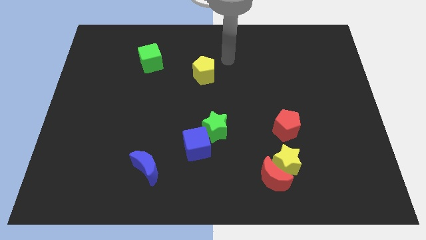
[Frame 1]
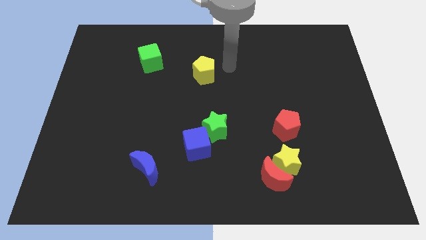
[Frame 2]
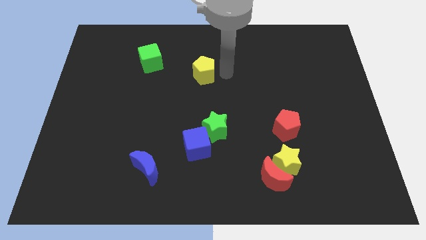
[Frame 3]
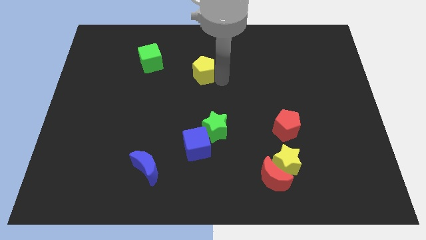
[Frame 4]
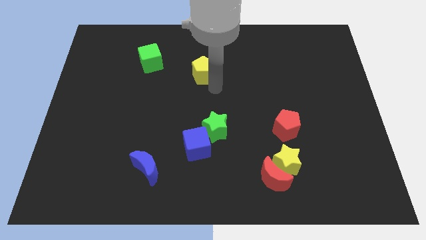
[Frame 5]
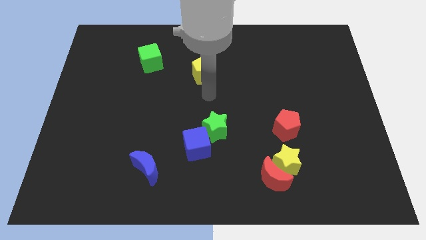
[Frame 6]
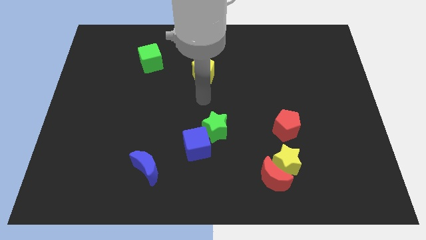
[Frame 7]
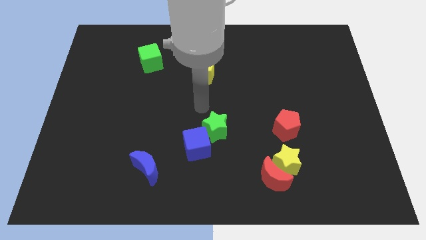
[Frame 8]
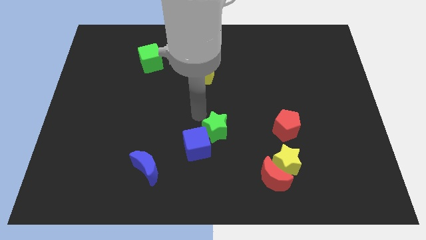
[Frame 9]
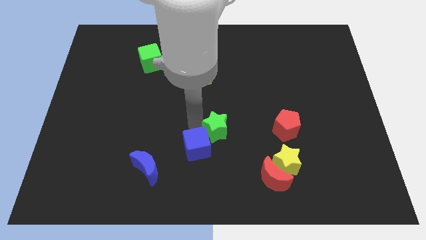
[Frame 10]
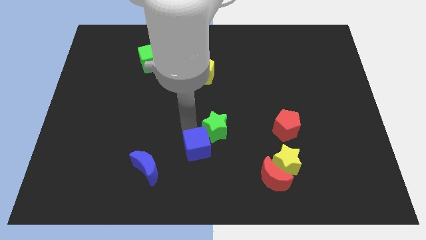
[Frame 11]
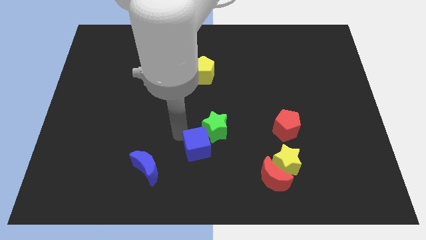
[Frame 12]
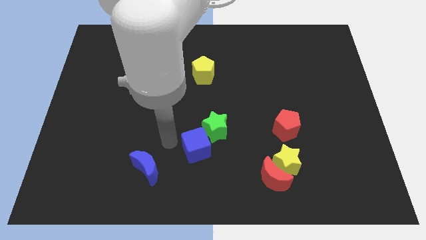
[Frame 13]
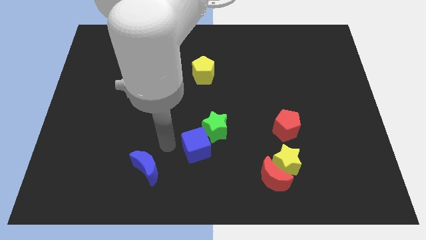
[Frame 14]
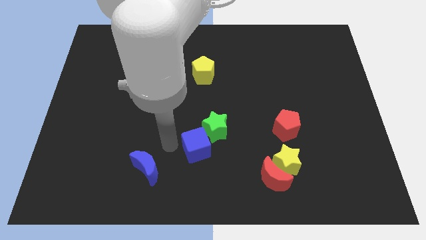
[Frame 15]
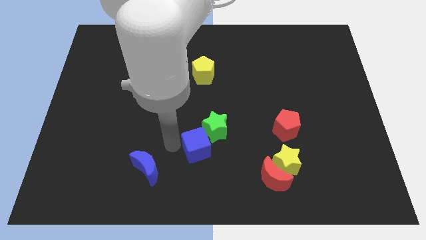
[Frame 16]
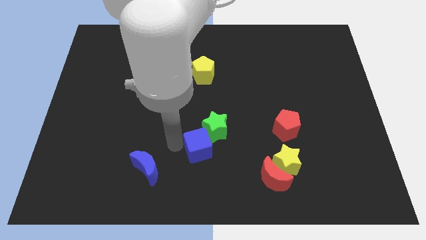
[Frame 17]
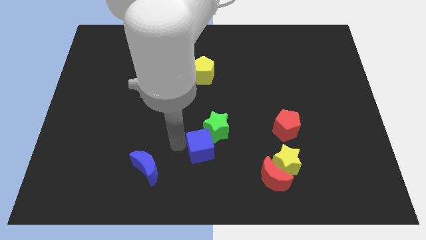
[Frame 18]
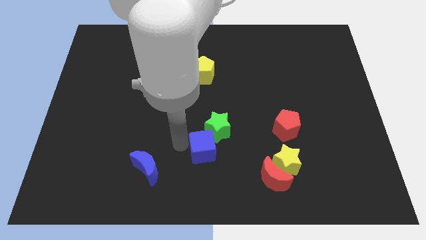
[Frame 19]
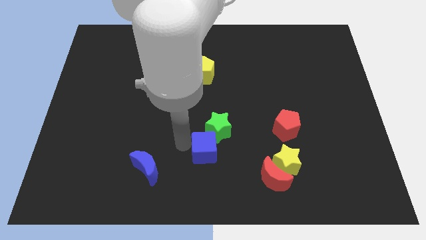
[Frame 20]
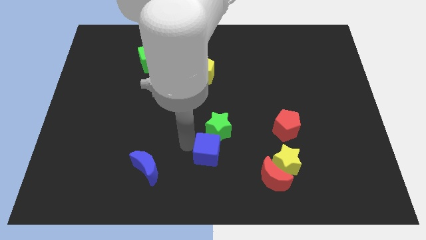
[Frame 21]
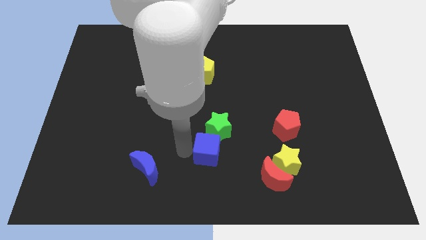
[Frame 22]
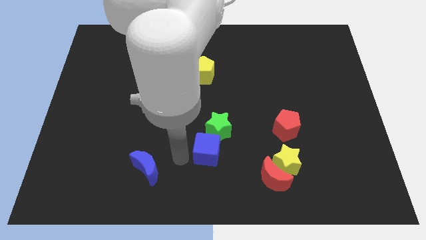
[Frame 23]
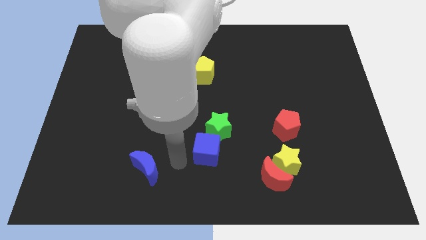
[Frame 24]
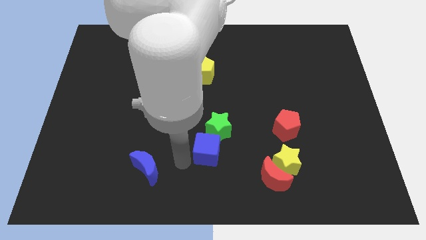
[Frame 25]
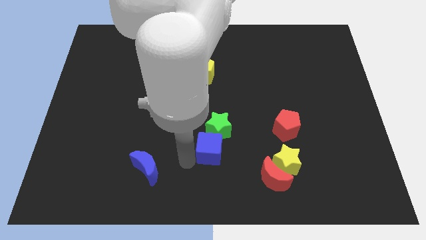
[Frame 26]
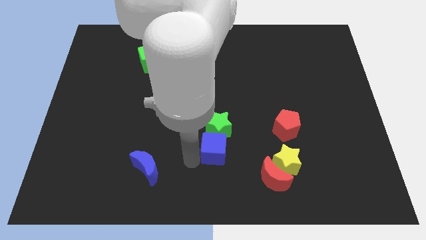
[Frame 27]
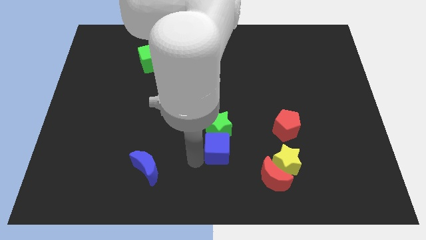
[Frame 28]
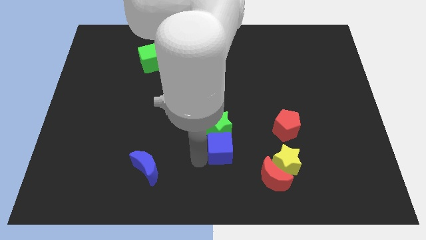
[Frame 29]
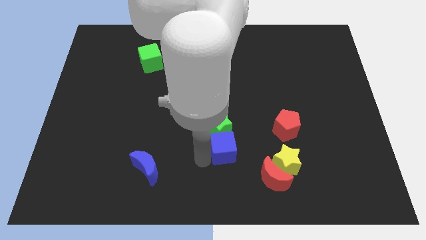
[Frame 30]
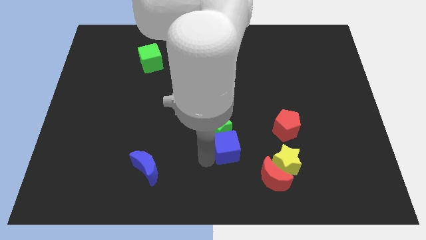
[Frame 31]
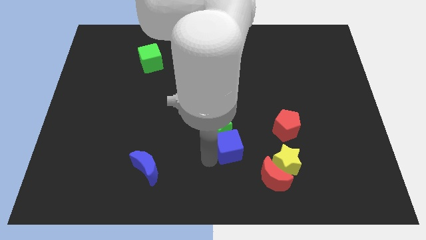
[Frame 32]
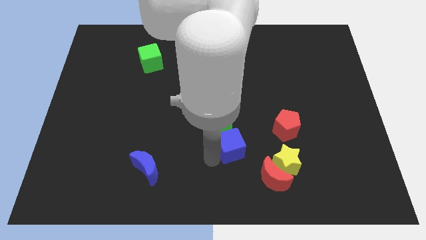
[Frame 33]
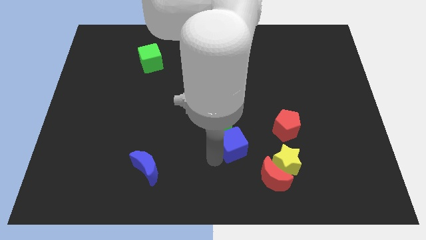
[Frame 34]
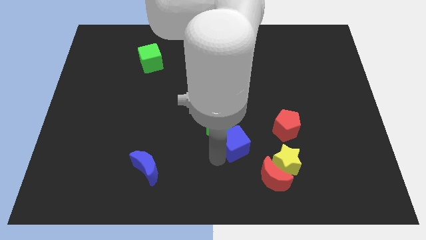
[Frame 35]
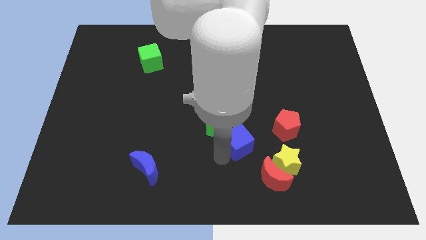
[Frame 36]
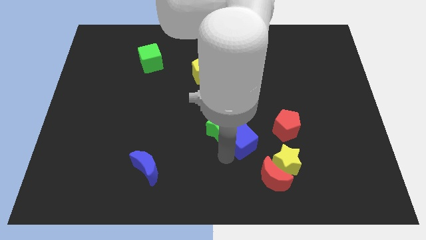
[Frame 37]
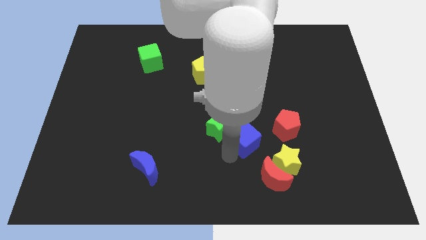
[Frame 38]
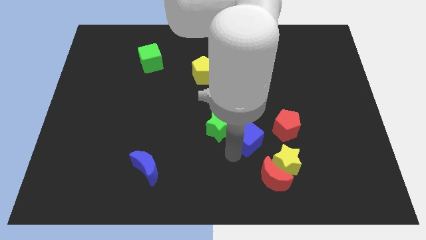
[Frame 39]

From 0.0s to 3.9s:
push the blue cube a little bit upwards and to the right diagonally

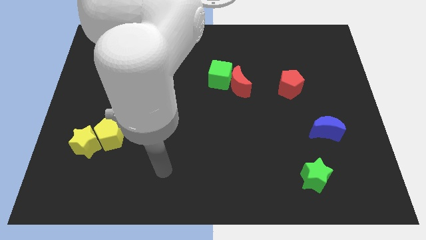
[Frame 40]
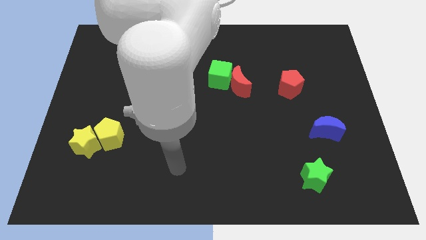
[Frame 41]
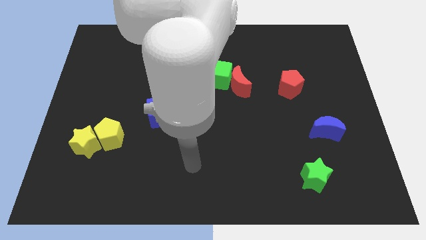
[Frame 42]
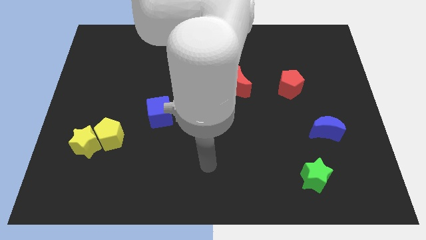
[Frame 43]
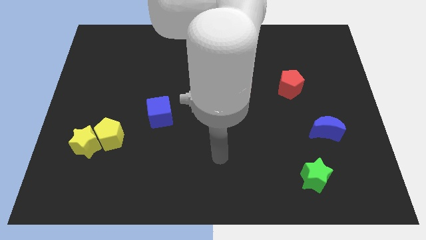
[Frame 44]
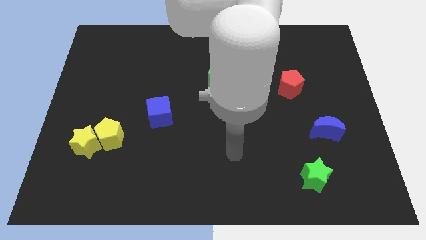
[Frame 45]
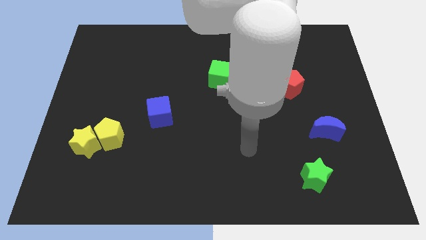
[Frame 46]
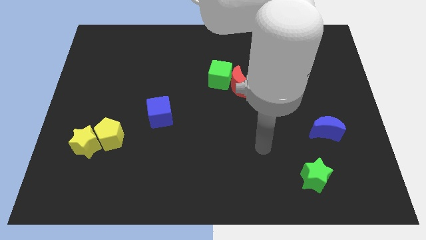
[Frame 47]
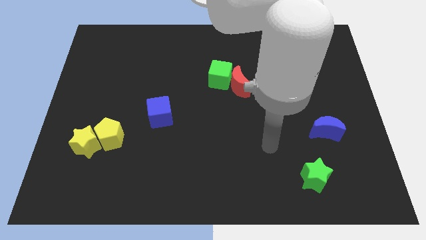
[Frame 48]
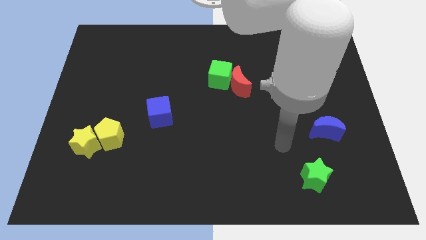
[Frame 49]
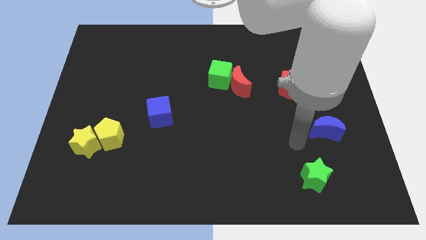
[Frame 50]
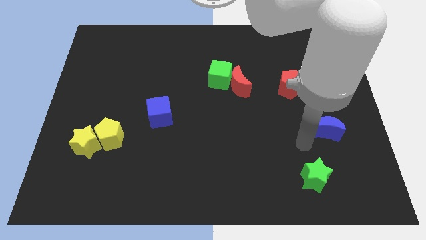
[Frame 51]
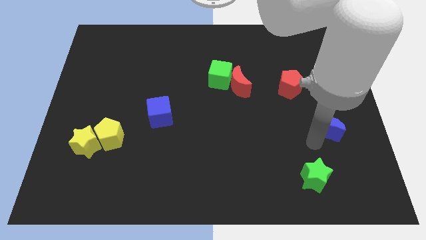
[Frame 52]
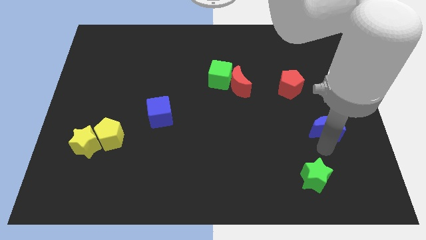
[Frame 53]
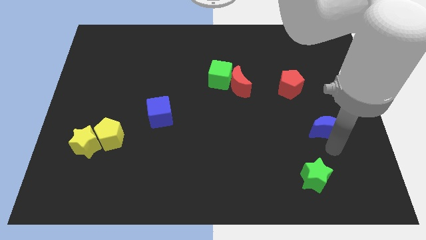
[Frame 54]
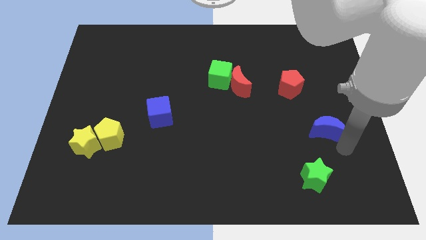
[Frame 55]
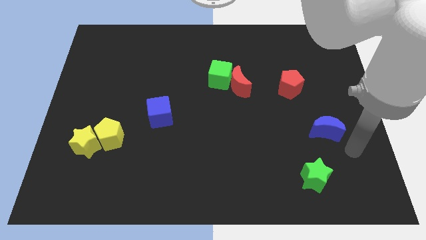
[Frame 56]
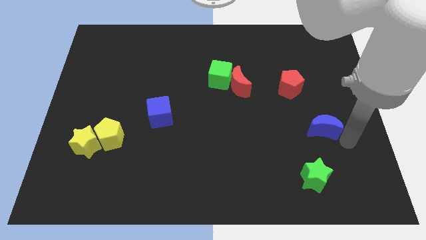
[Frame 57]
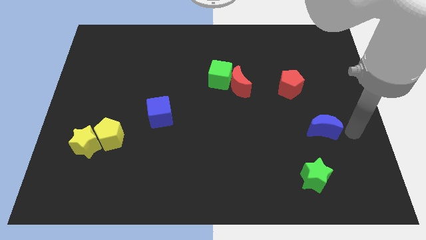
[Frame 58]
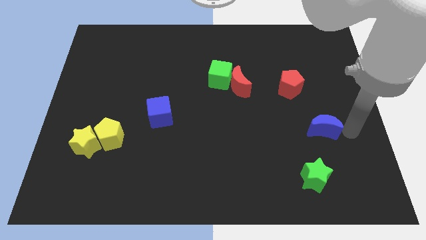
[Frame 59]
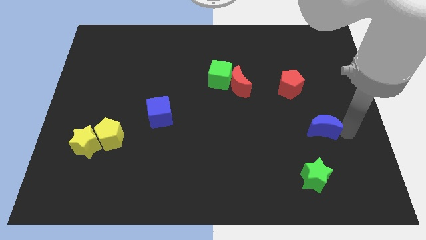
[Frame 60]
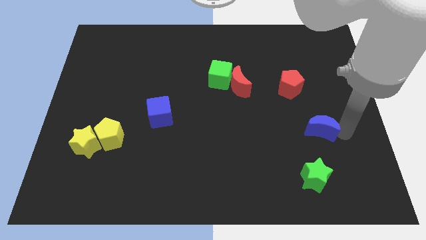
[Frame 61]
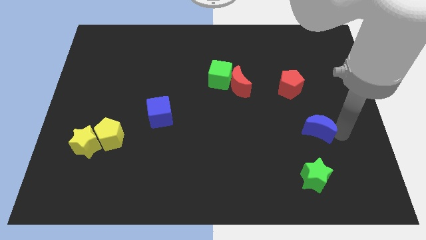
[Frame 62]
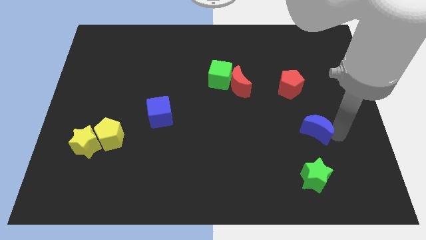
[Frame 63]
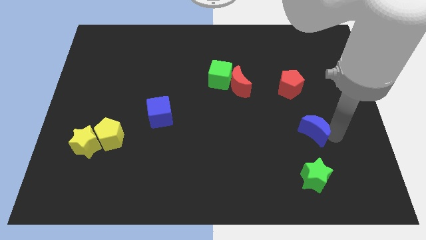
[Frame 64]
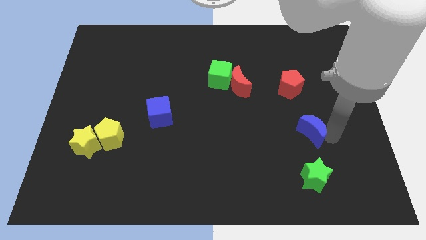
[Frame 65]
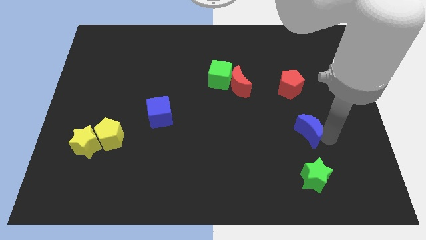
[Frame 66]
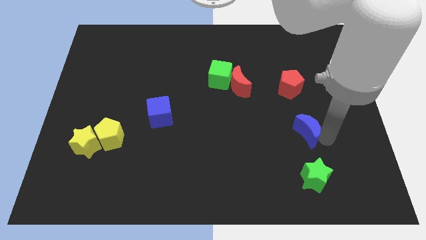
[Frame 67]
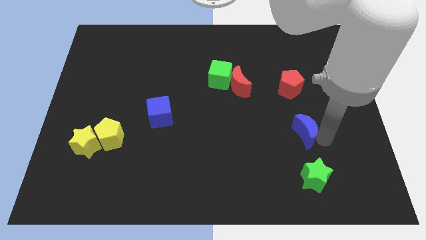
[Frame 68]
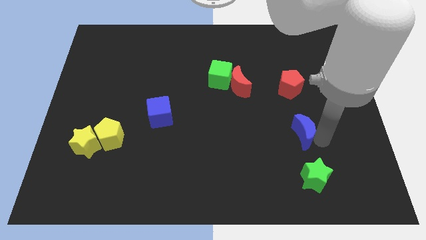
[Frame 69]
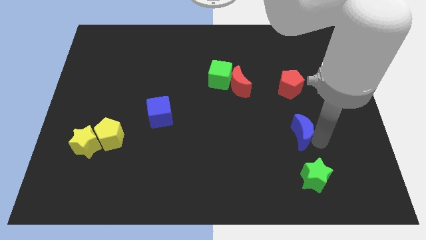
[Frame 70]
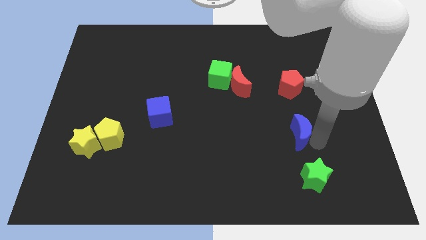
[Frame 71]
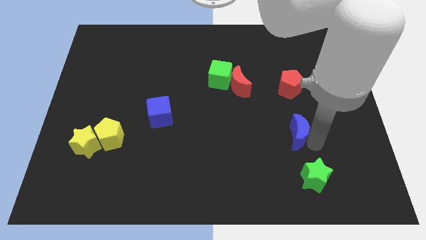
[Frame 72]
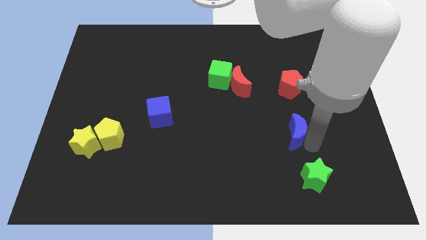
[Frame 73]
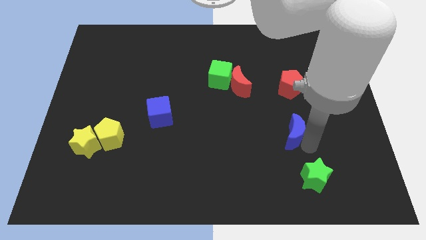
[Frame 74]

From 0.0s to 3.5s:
slightly push the blue moon to the left

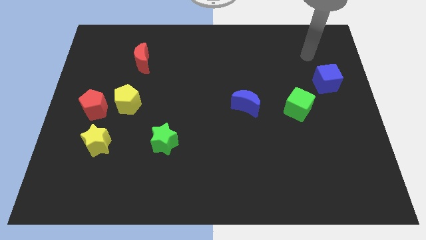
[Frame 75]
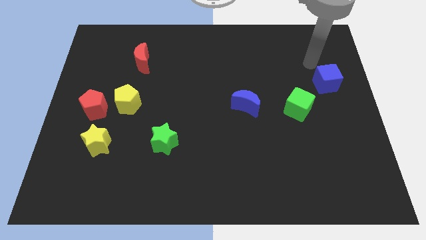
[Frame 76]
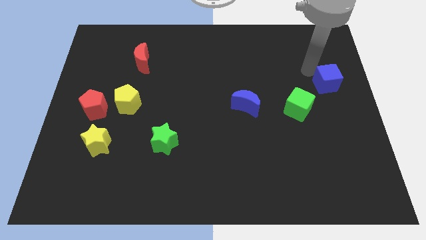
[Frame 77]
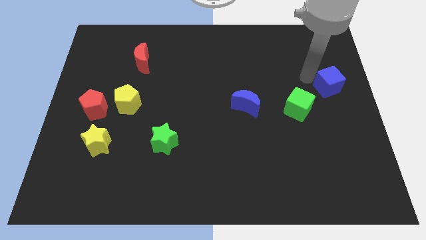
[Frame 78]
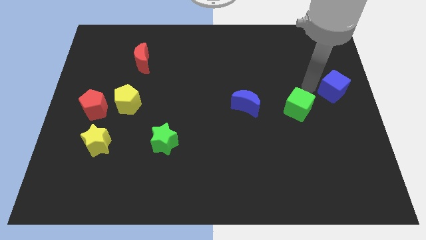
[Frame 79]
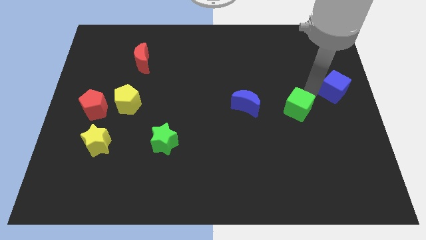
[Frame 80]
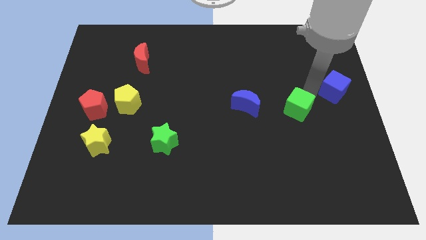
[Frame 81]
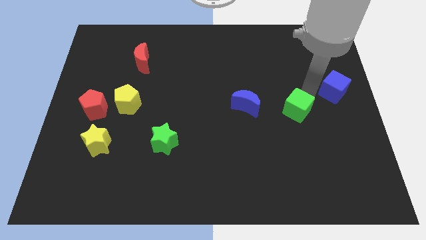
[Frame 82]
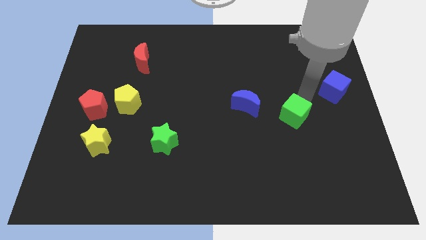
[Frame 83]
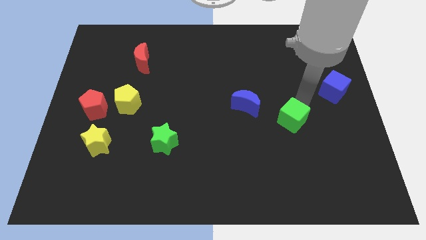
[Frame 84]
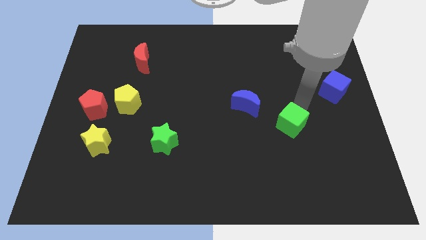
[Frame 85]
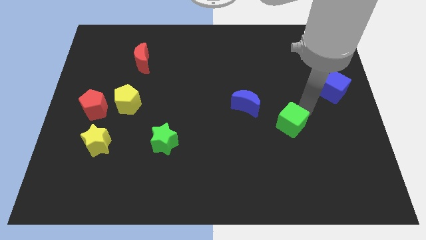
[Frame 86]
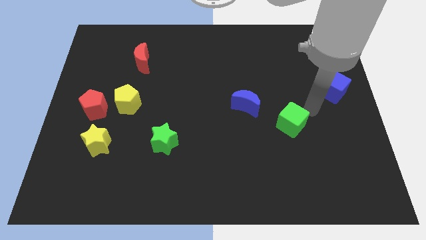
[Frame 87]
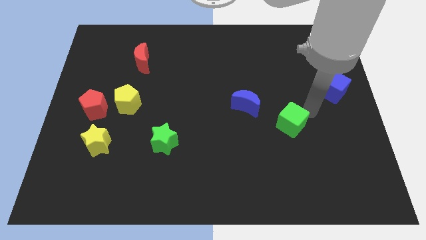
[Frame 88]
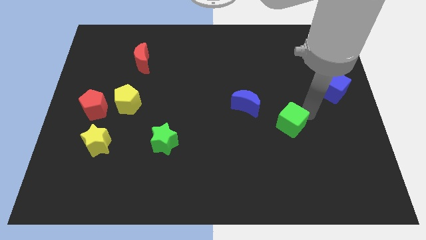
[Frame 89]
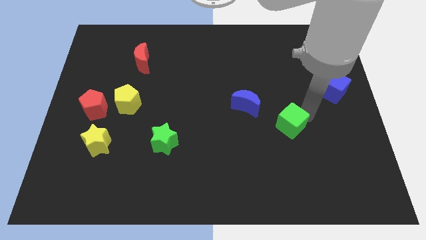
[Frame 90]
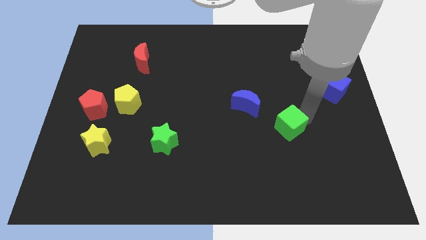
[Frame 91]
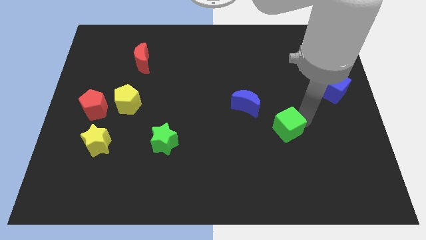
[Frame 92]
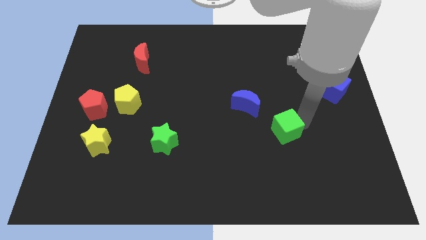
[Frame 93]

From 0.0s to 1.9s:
slightly move the green cube down and then left
